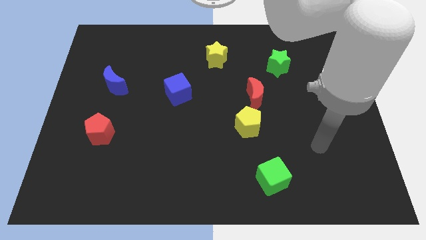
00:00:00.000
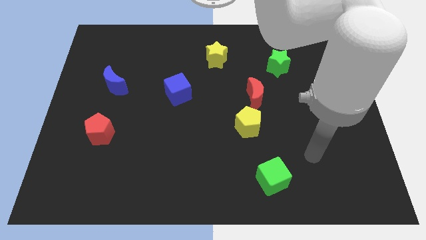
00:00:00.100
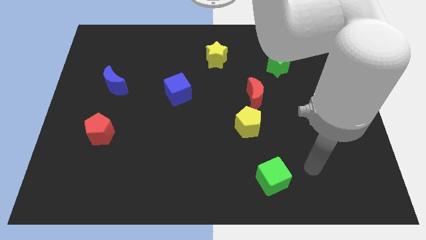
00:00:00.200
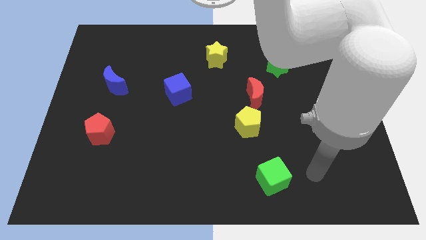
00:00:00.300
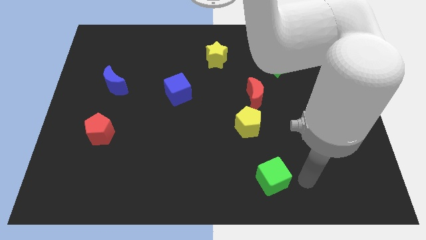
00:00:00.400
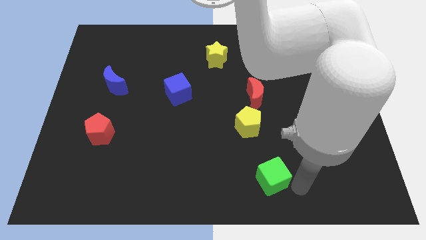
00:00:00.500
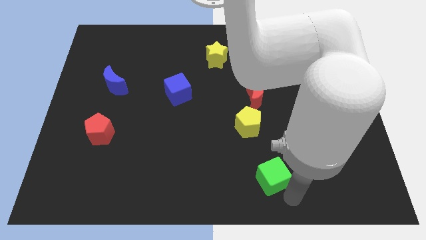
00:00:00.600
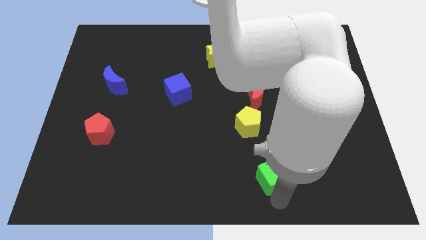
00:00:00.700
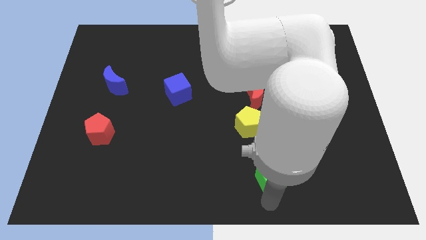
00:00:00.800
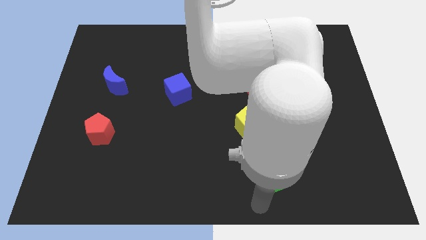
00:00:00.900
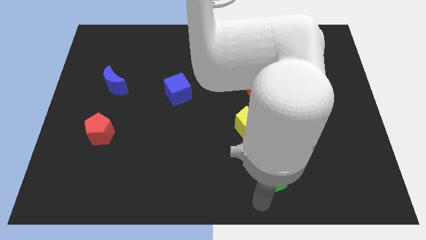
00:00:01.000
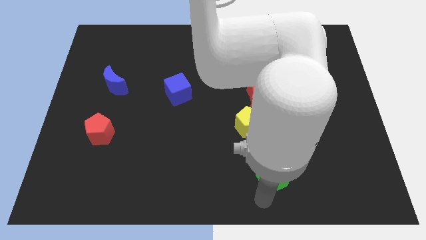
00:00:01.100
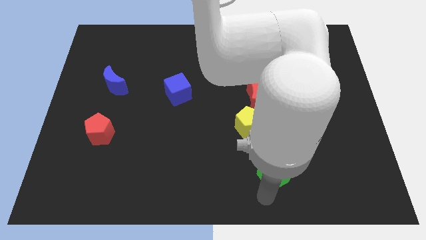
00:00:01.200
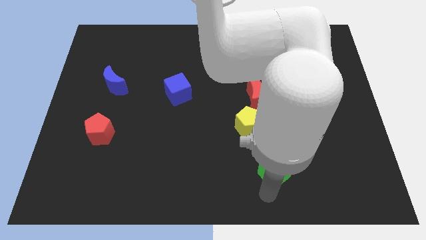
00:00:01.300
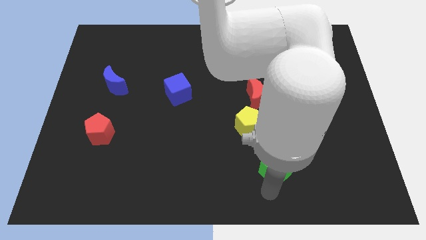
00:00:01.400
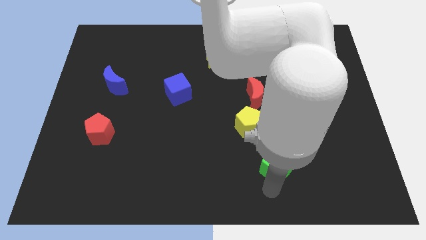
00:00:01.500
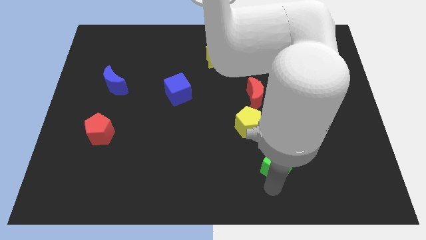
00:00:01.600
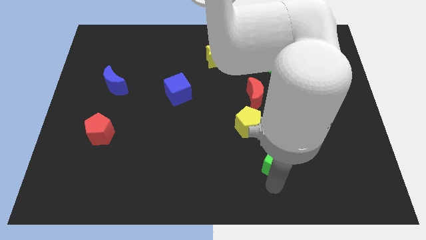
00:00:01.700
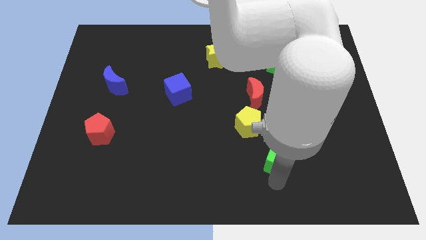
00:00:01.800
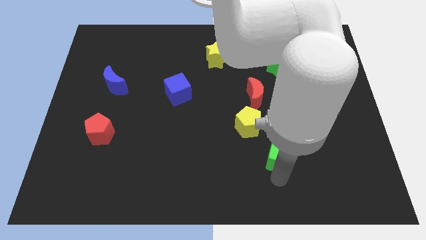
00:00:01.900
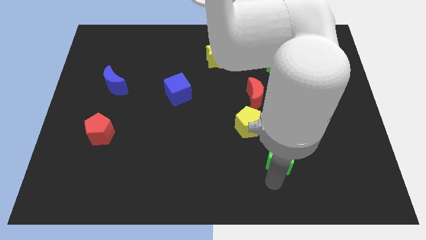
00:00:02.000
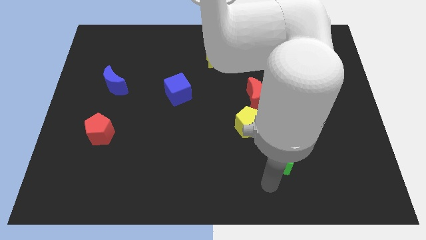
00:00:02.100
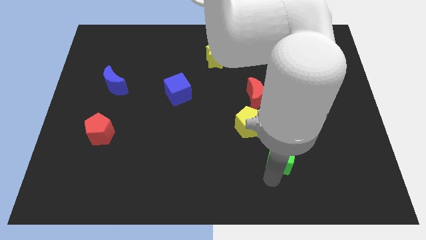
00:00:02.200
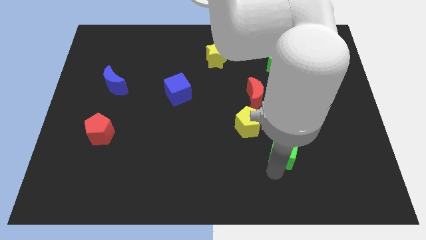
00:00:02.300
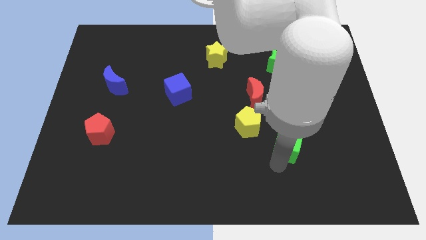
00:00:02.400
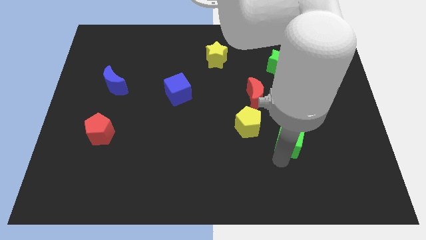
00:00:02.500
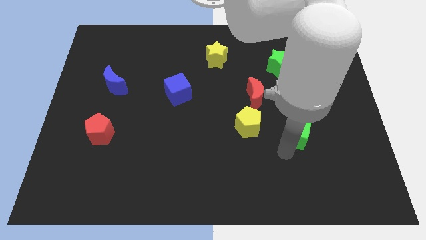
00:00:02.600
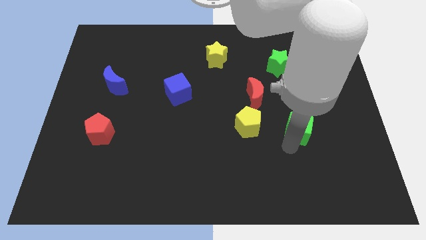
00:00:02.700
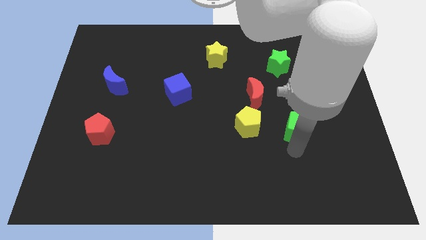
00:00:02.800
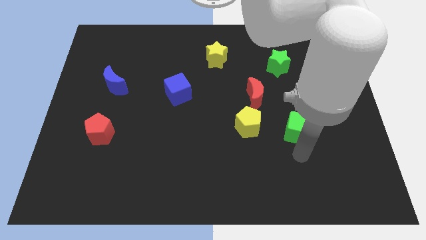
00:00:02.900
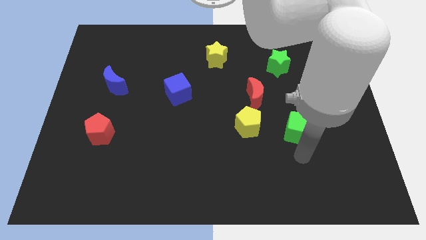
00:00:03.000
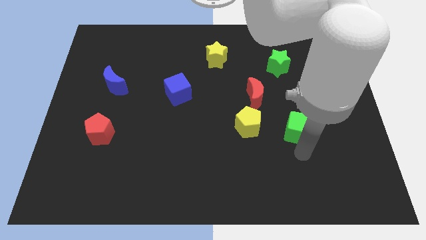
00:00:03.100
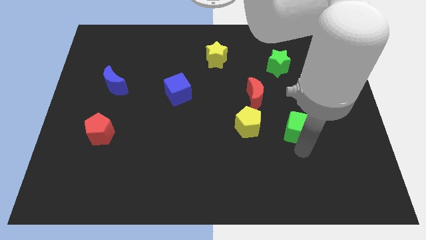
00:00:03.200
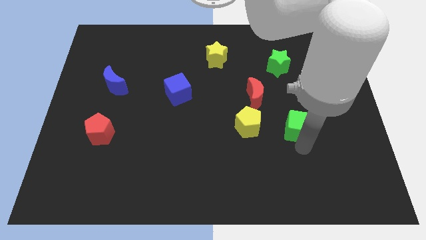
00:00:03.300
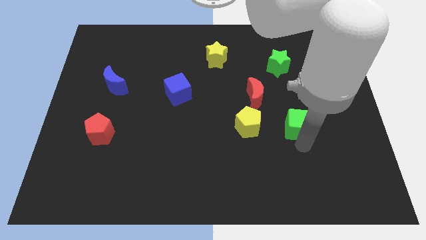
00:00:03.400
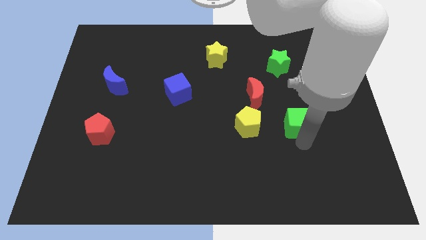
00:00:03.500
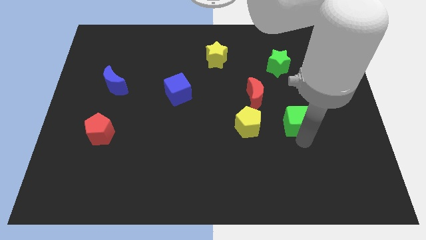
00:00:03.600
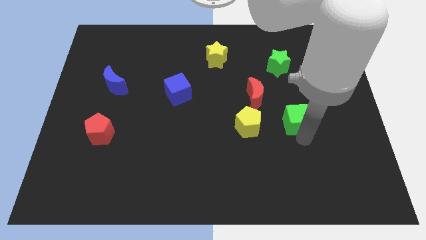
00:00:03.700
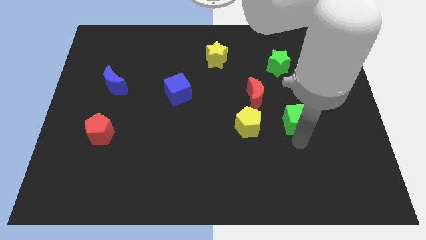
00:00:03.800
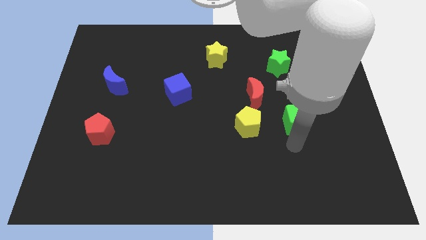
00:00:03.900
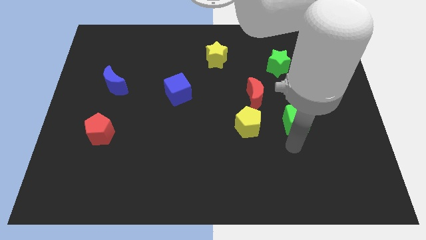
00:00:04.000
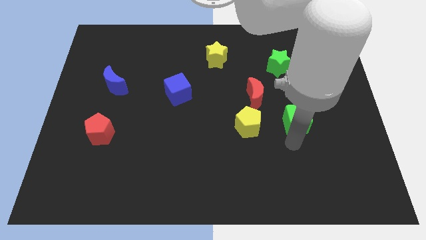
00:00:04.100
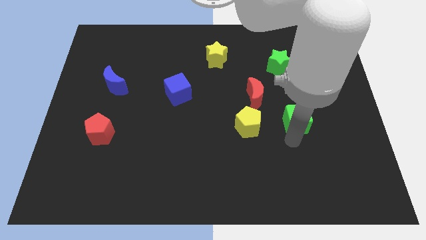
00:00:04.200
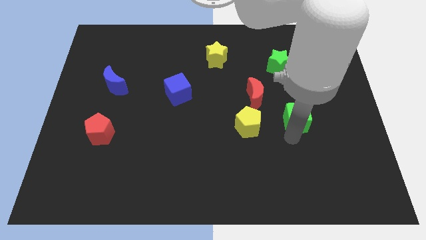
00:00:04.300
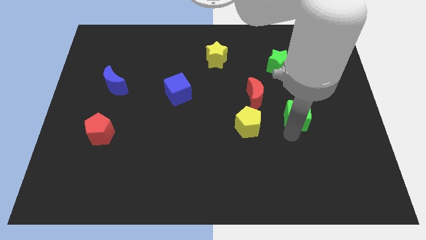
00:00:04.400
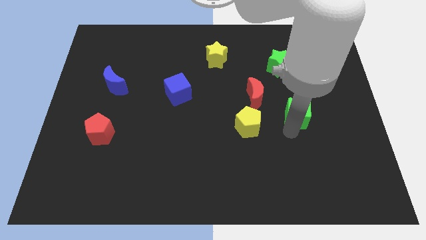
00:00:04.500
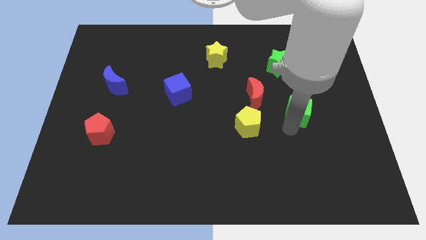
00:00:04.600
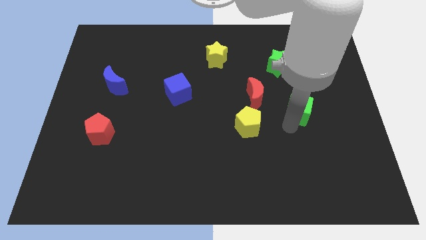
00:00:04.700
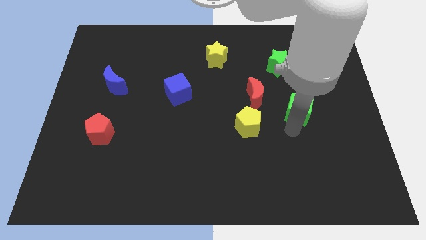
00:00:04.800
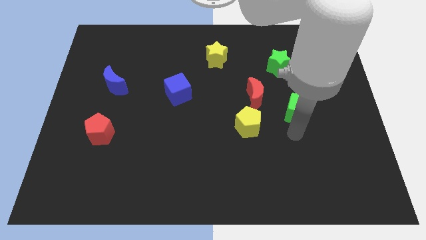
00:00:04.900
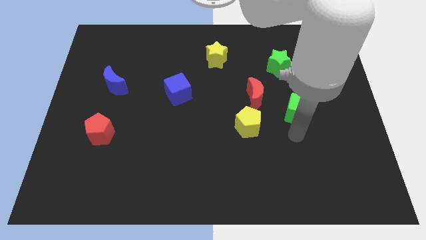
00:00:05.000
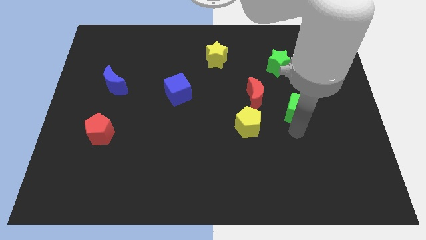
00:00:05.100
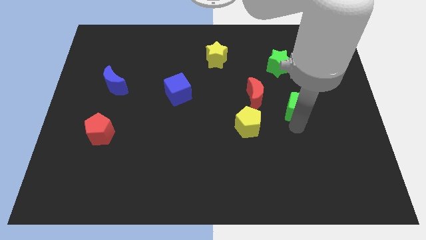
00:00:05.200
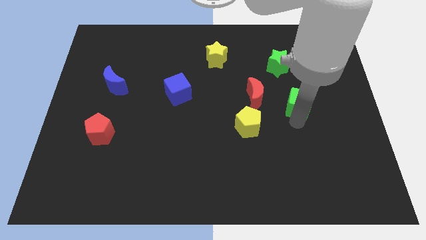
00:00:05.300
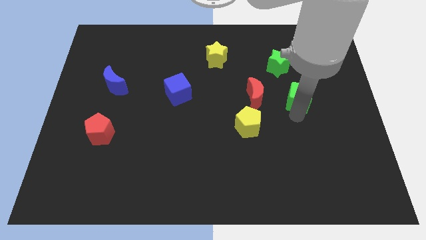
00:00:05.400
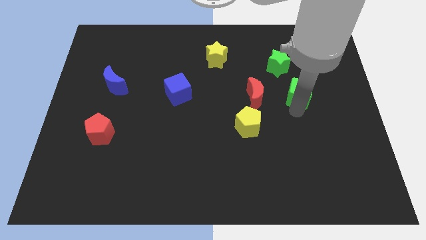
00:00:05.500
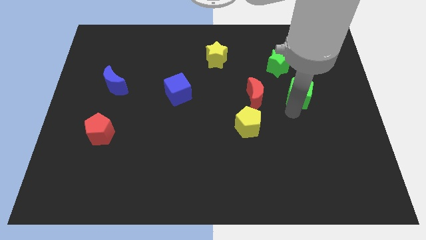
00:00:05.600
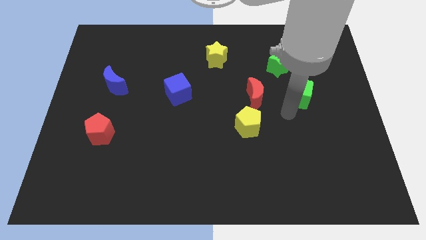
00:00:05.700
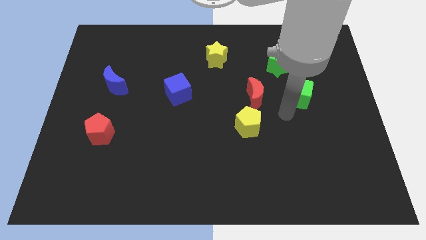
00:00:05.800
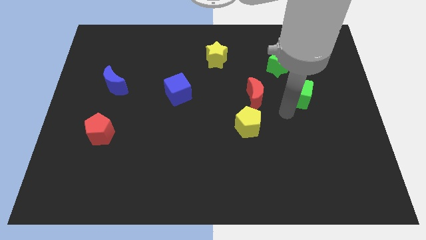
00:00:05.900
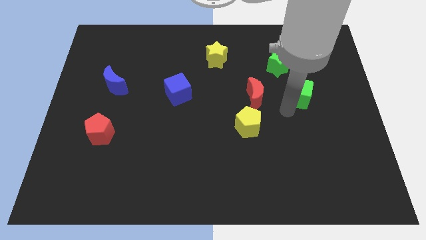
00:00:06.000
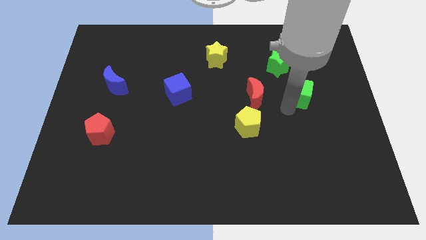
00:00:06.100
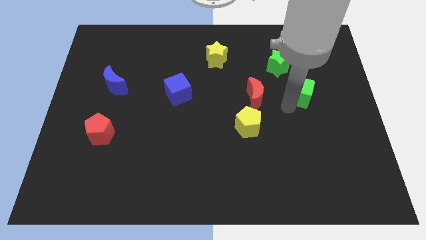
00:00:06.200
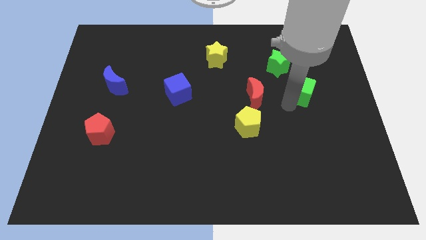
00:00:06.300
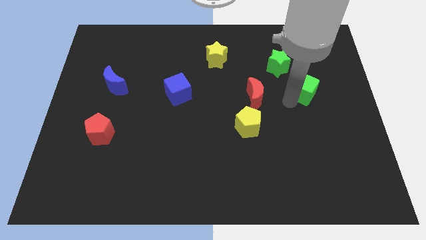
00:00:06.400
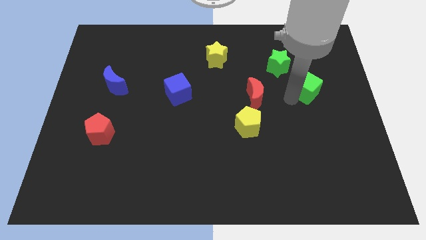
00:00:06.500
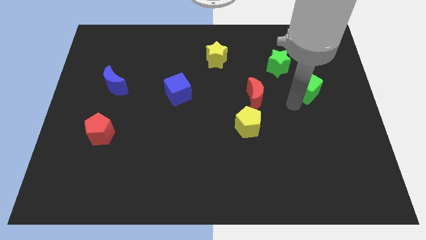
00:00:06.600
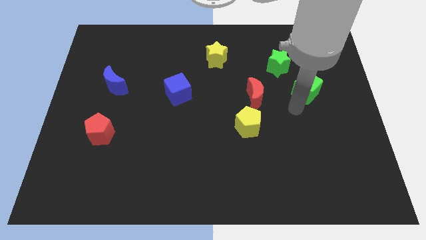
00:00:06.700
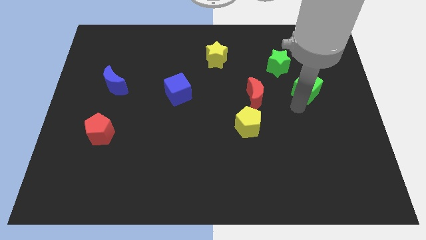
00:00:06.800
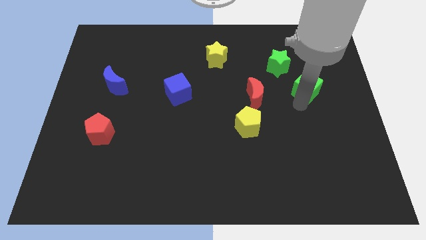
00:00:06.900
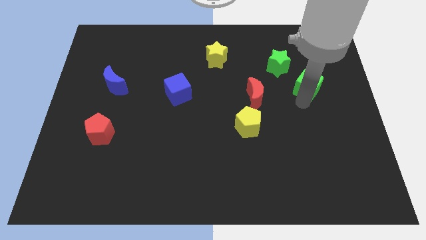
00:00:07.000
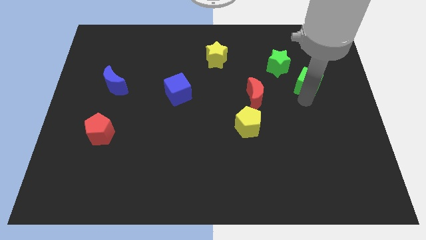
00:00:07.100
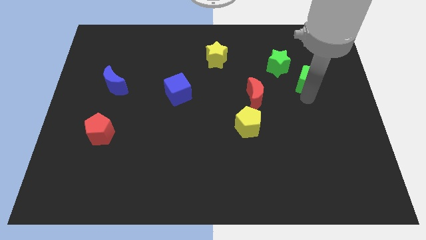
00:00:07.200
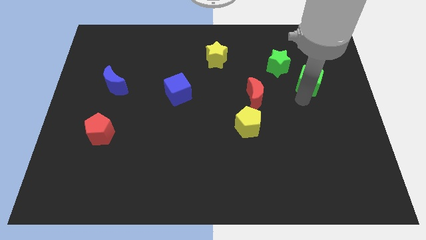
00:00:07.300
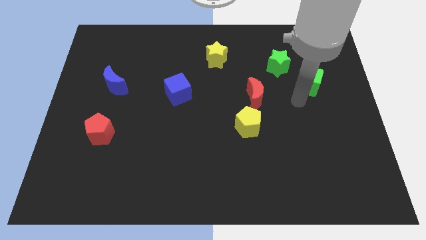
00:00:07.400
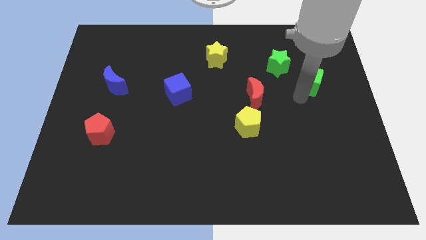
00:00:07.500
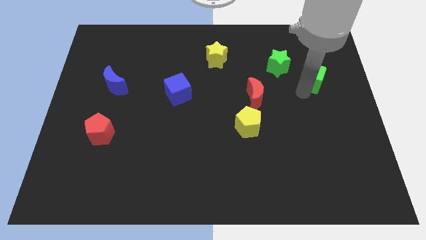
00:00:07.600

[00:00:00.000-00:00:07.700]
push the green cube just right of the green star
